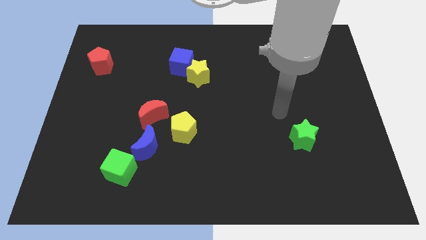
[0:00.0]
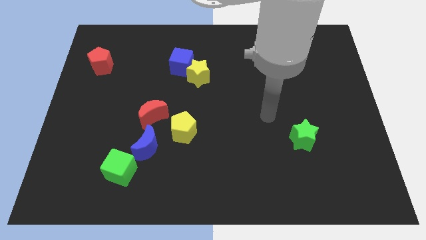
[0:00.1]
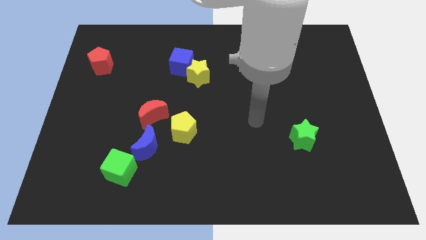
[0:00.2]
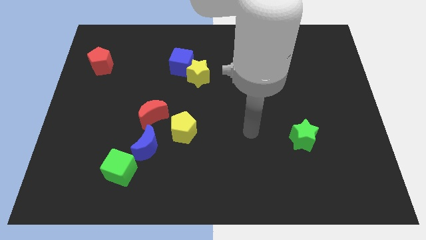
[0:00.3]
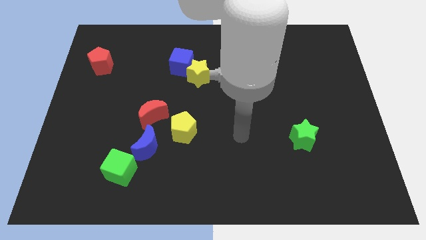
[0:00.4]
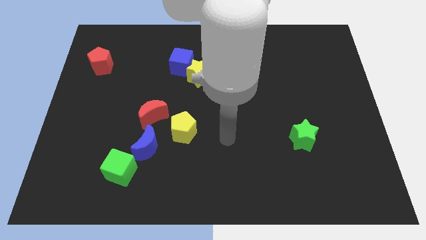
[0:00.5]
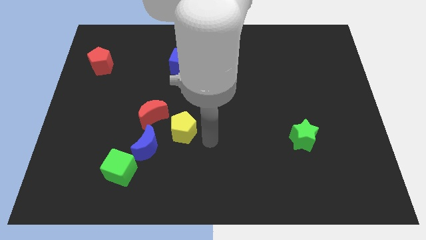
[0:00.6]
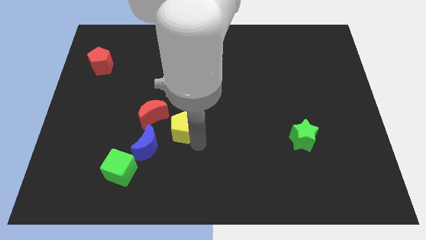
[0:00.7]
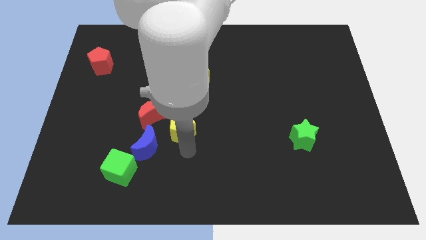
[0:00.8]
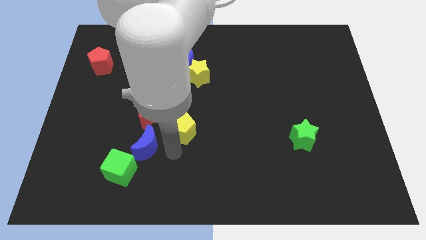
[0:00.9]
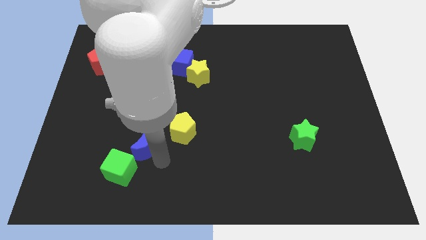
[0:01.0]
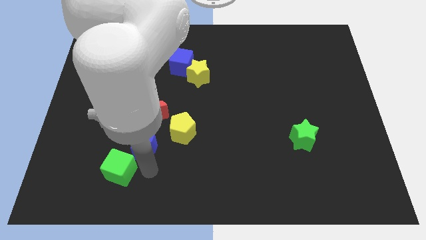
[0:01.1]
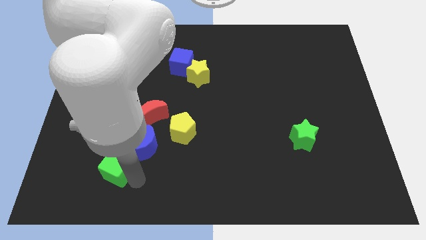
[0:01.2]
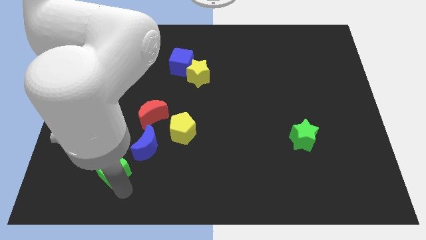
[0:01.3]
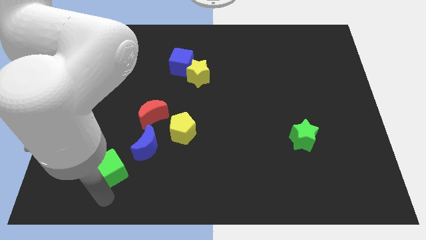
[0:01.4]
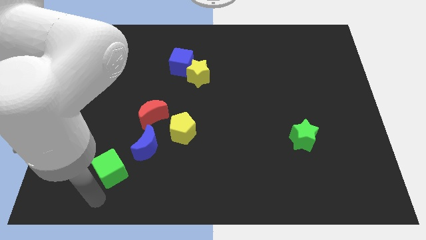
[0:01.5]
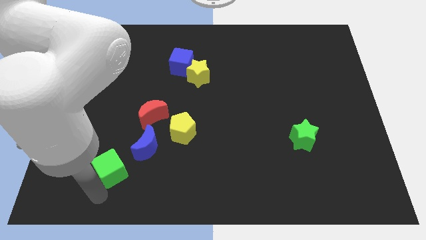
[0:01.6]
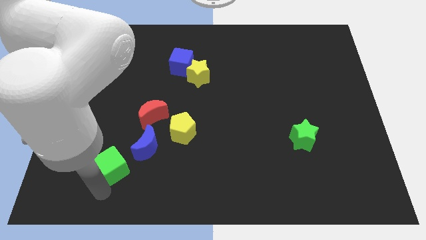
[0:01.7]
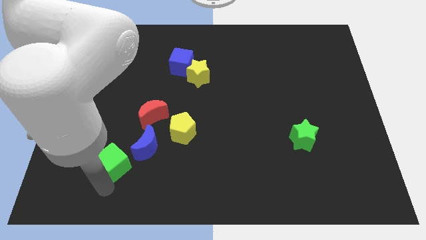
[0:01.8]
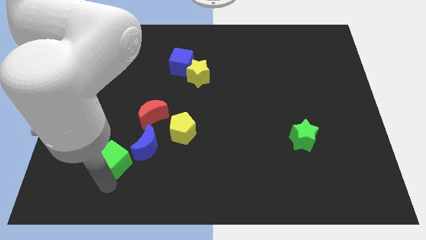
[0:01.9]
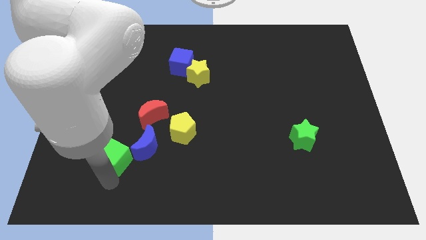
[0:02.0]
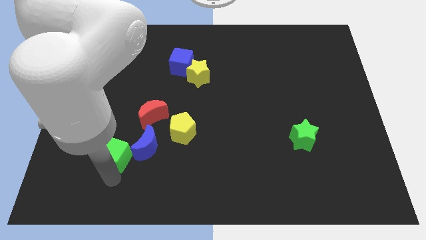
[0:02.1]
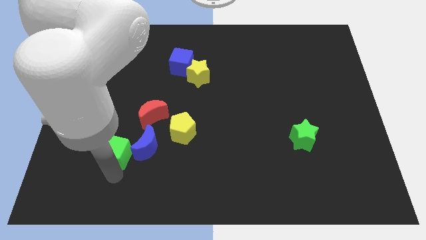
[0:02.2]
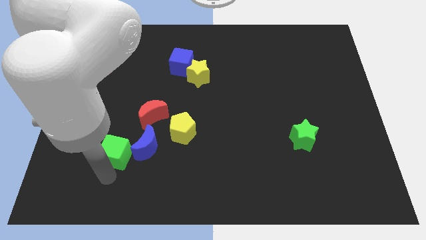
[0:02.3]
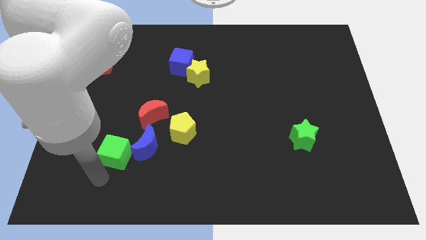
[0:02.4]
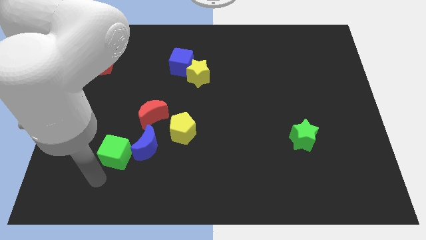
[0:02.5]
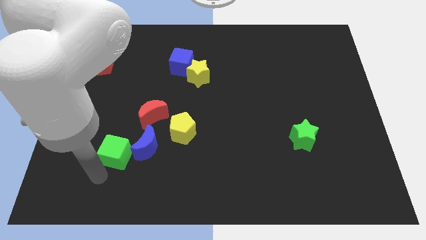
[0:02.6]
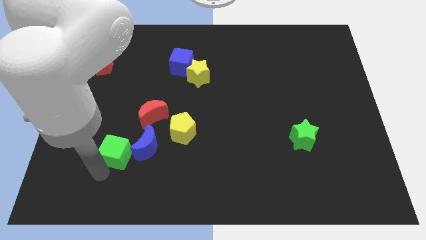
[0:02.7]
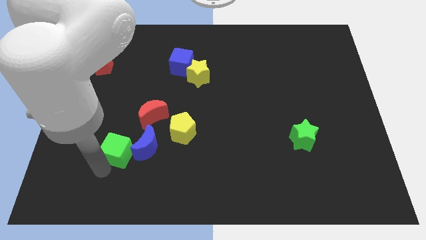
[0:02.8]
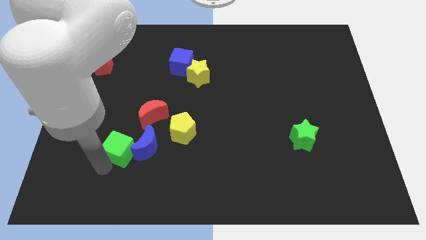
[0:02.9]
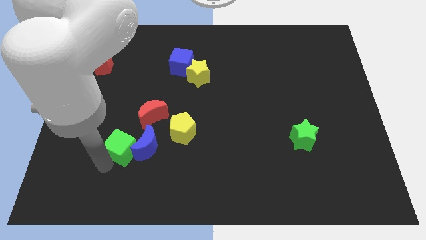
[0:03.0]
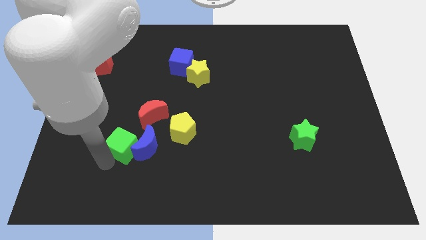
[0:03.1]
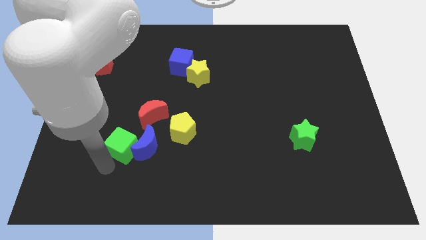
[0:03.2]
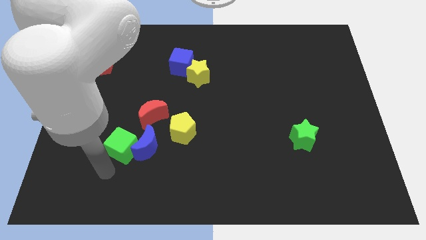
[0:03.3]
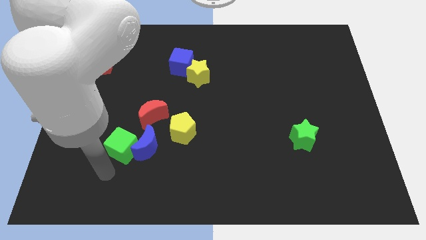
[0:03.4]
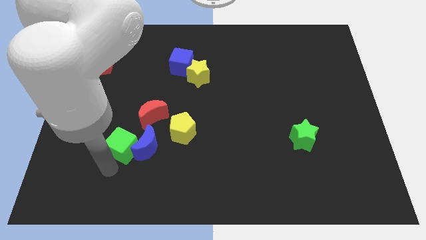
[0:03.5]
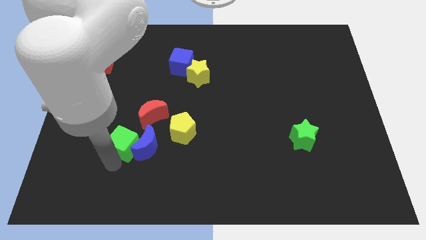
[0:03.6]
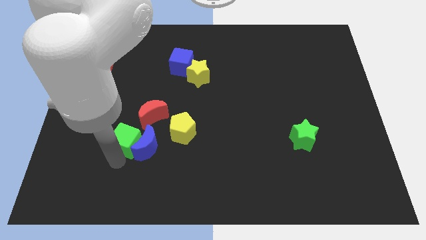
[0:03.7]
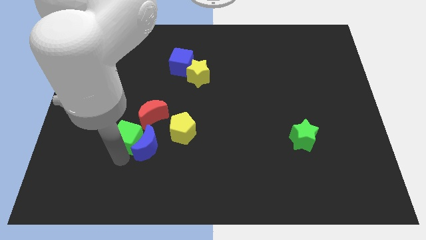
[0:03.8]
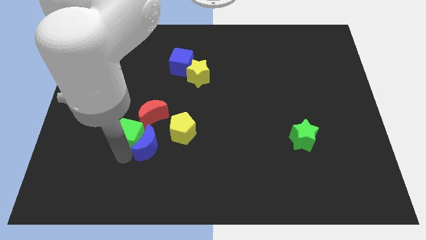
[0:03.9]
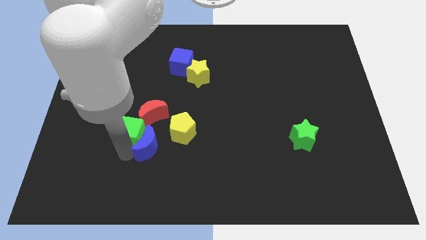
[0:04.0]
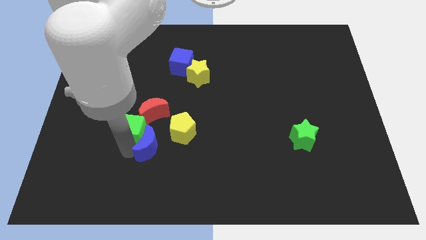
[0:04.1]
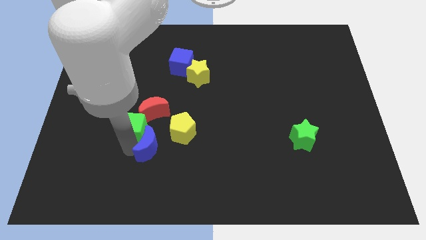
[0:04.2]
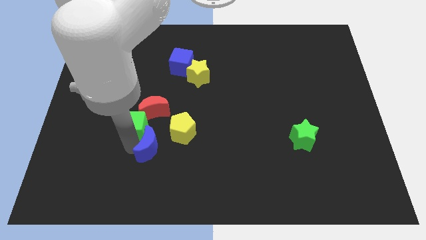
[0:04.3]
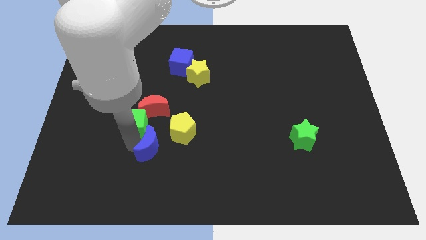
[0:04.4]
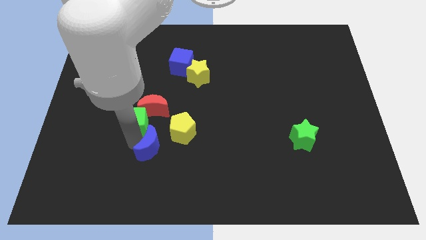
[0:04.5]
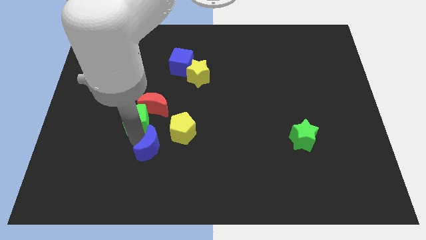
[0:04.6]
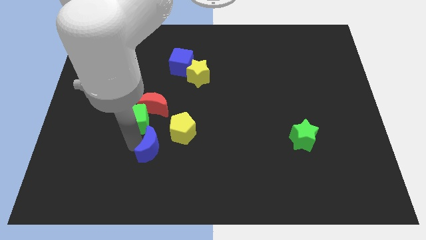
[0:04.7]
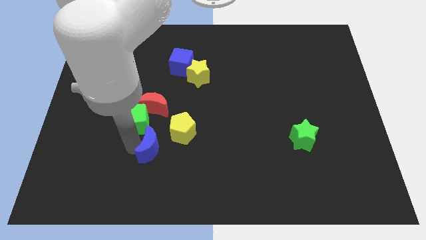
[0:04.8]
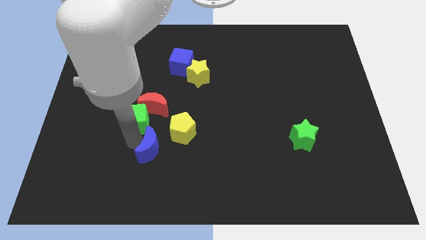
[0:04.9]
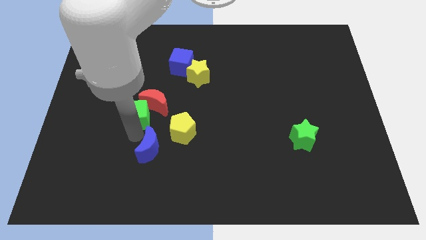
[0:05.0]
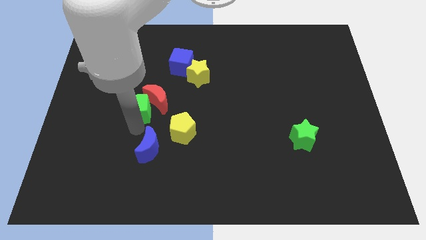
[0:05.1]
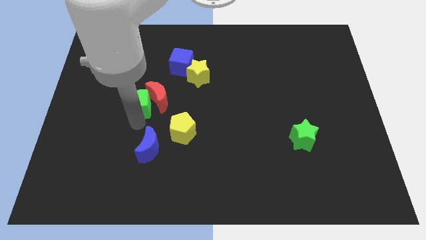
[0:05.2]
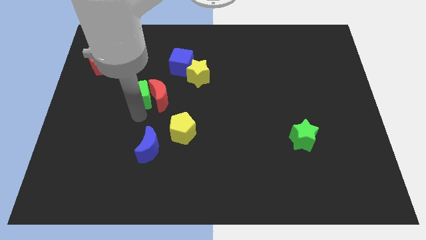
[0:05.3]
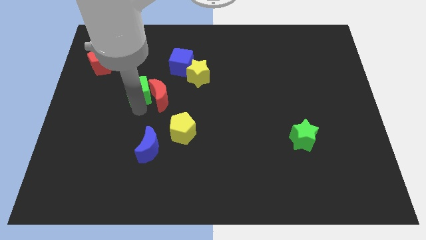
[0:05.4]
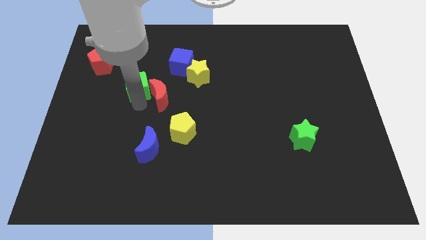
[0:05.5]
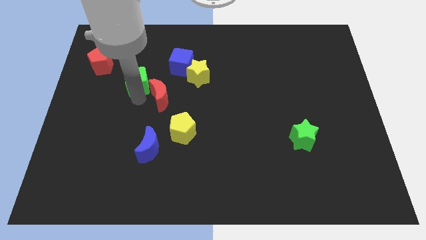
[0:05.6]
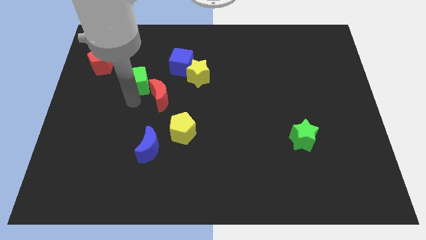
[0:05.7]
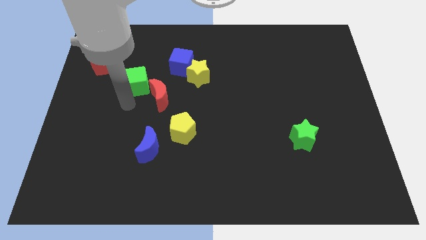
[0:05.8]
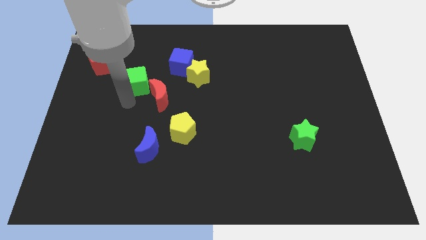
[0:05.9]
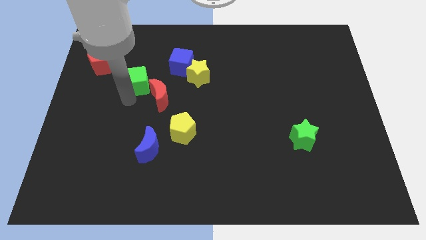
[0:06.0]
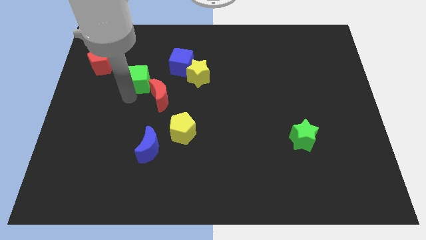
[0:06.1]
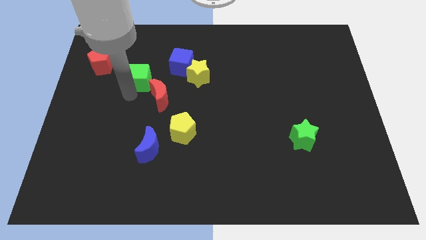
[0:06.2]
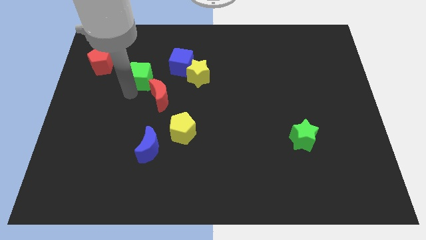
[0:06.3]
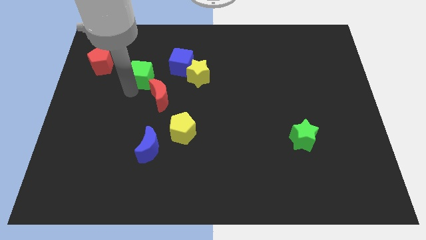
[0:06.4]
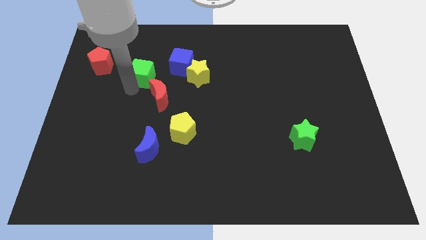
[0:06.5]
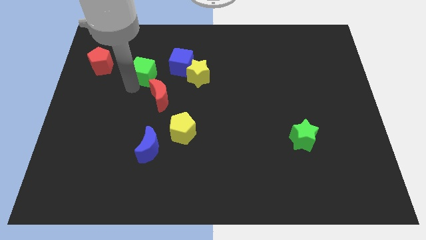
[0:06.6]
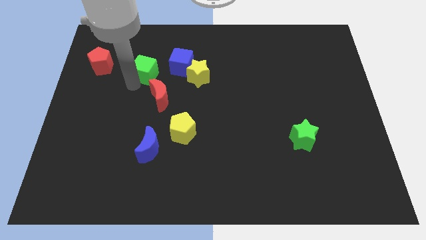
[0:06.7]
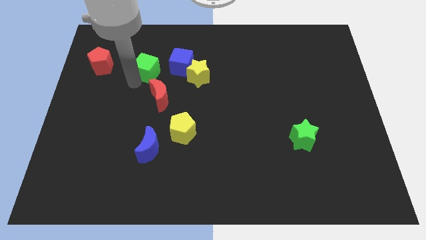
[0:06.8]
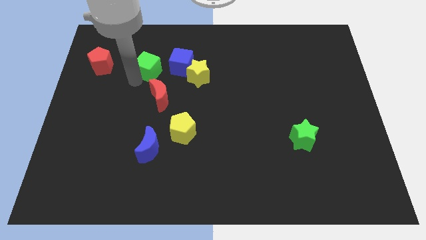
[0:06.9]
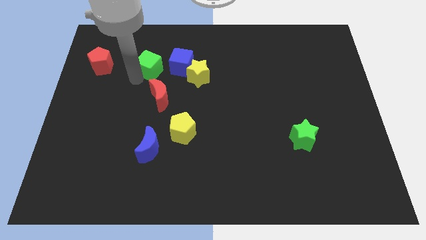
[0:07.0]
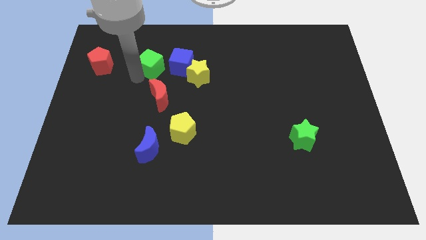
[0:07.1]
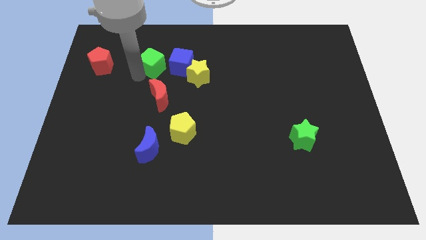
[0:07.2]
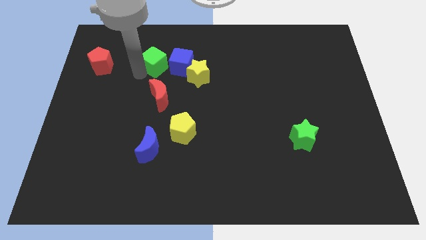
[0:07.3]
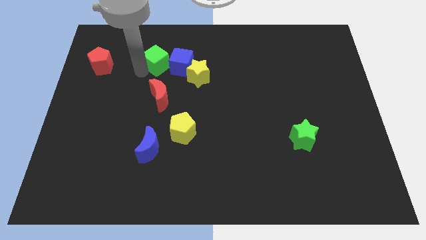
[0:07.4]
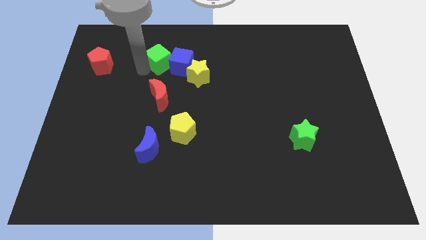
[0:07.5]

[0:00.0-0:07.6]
slide the green cube to the top left side of the yellow star
